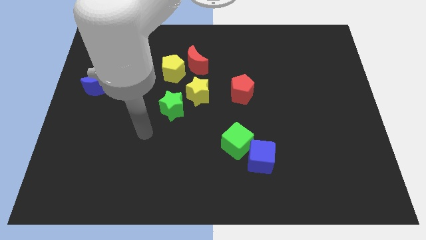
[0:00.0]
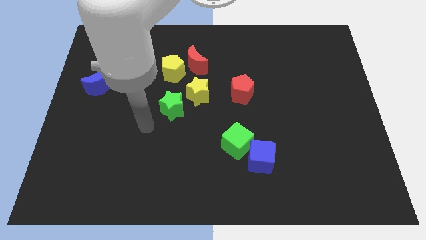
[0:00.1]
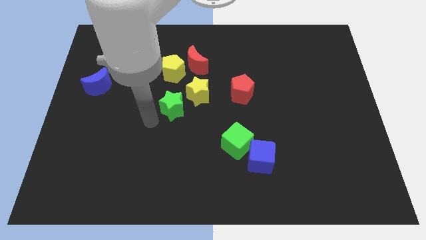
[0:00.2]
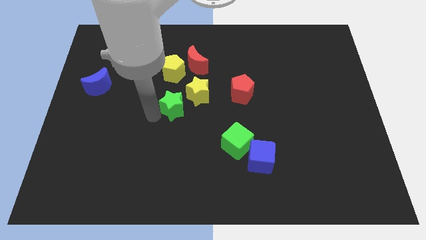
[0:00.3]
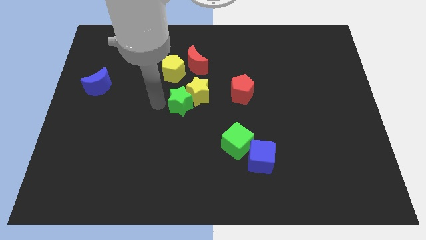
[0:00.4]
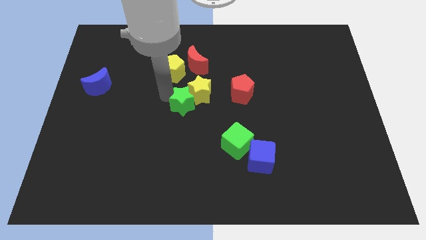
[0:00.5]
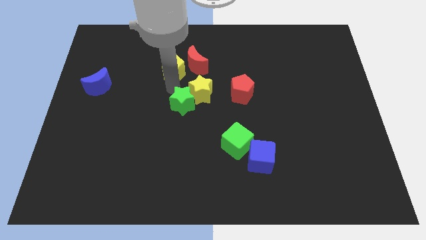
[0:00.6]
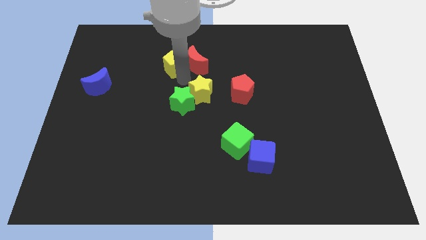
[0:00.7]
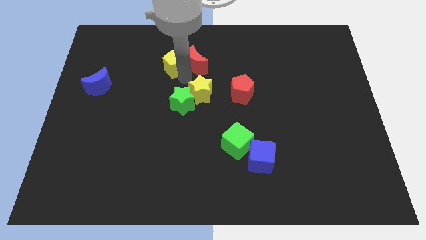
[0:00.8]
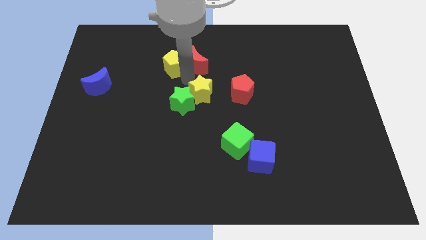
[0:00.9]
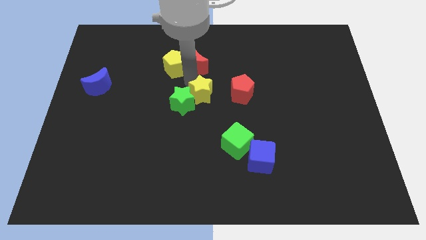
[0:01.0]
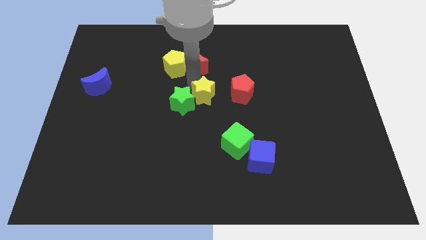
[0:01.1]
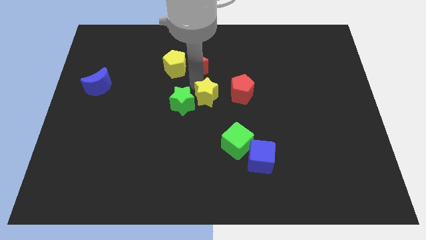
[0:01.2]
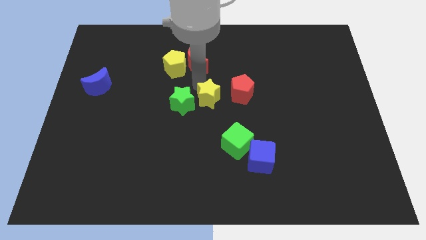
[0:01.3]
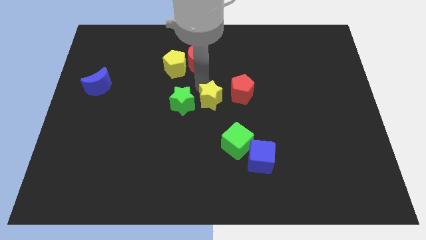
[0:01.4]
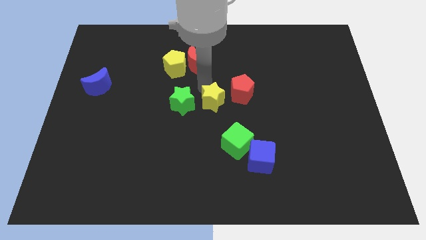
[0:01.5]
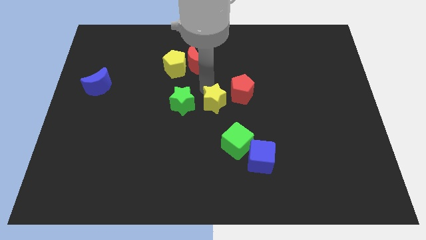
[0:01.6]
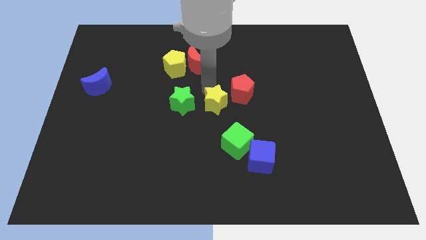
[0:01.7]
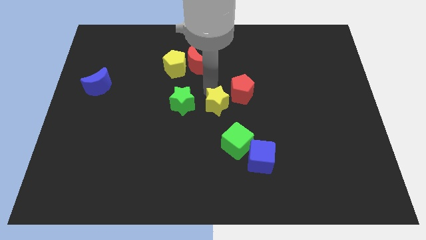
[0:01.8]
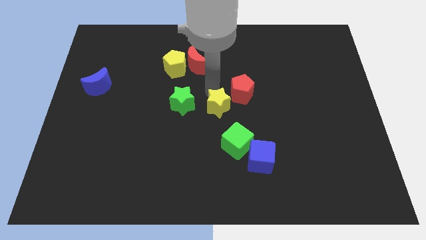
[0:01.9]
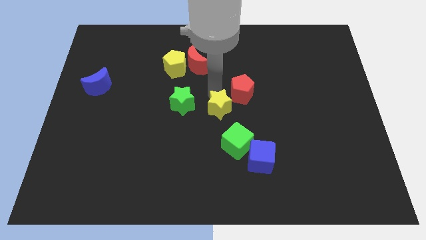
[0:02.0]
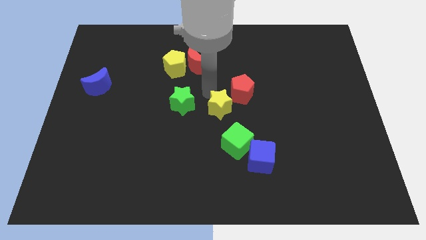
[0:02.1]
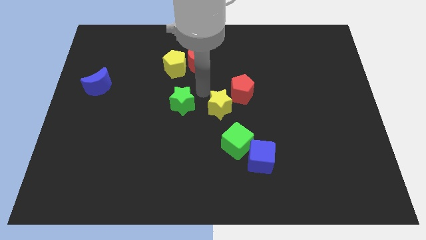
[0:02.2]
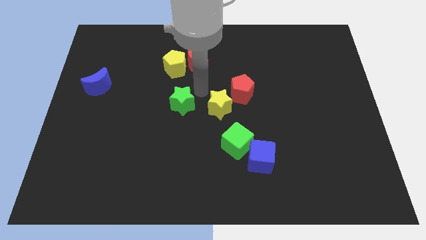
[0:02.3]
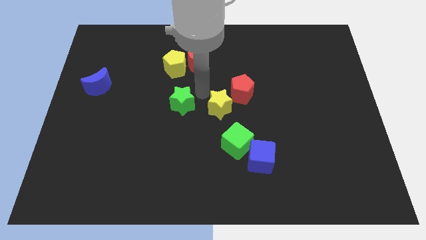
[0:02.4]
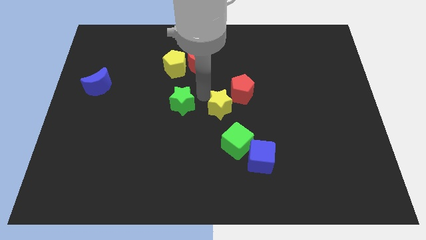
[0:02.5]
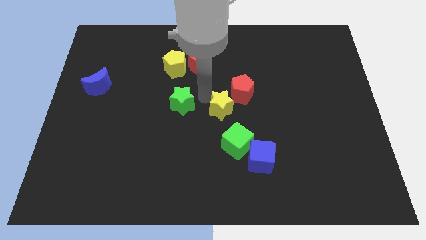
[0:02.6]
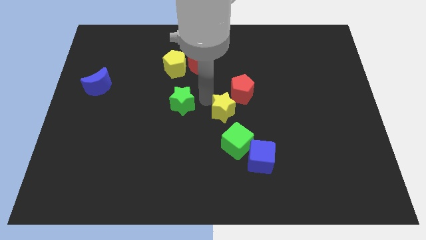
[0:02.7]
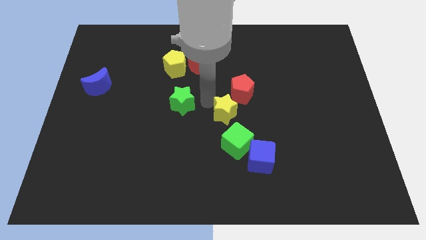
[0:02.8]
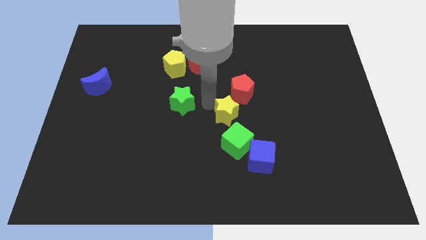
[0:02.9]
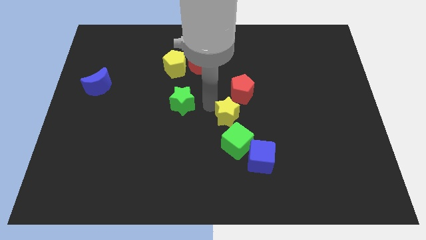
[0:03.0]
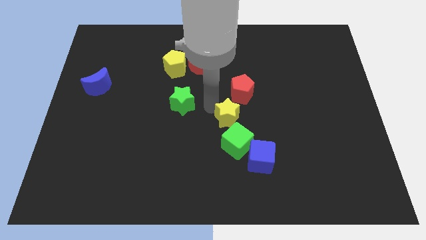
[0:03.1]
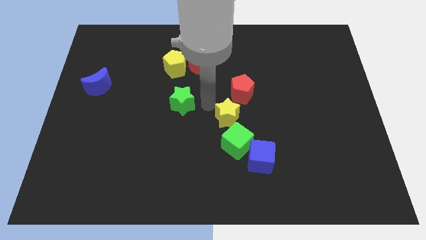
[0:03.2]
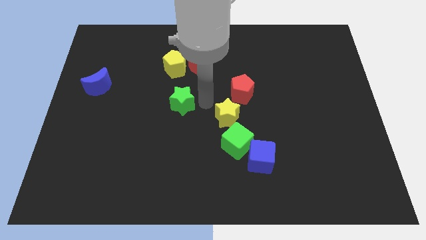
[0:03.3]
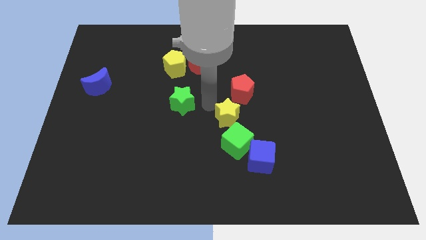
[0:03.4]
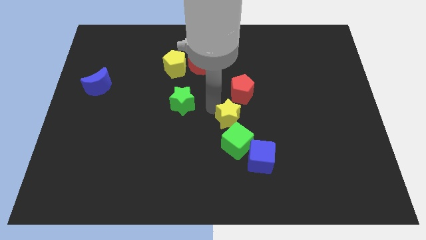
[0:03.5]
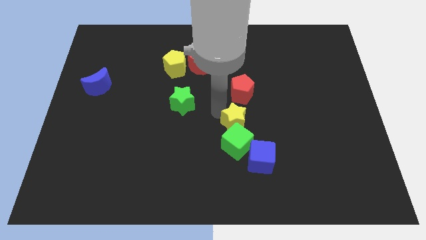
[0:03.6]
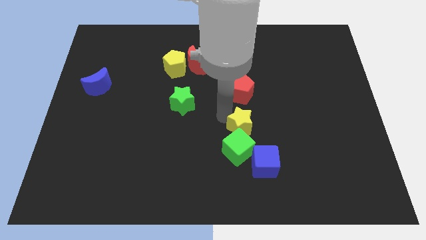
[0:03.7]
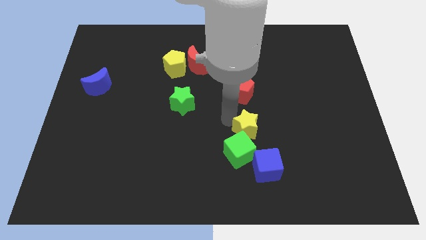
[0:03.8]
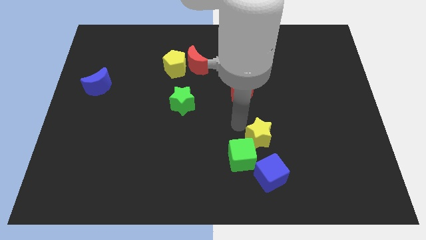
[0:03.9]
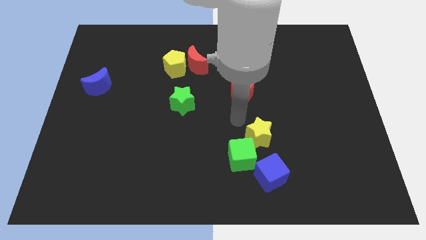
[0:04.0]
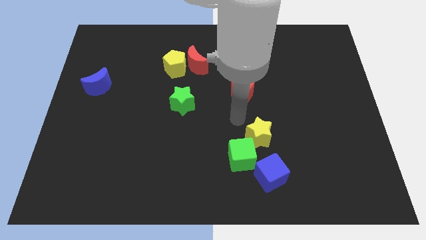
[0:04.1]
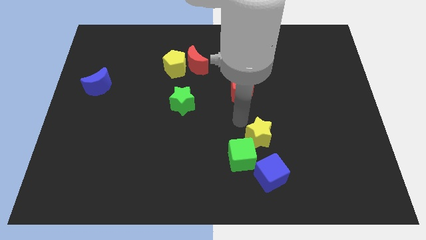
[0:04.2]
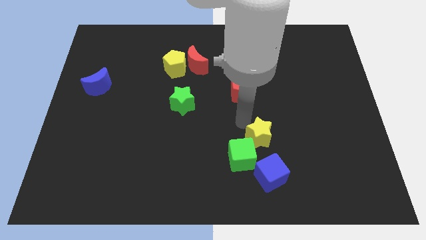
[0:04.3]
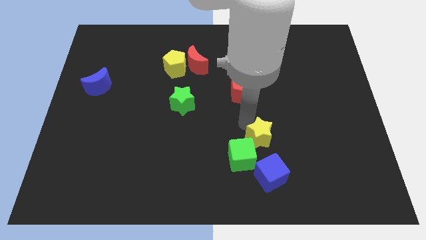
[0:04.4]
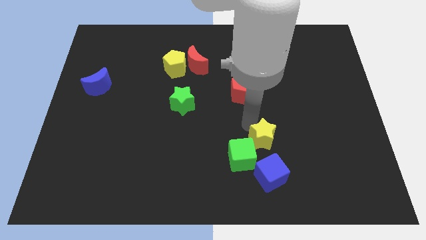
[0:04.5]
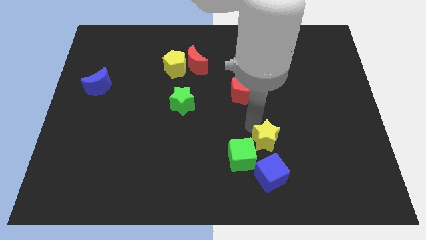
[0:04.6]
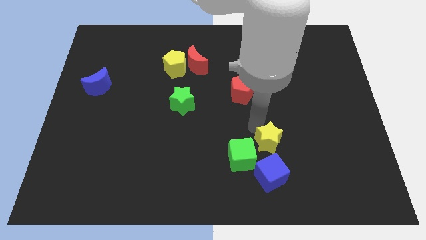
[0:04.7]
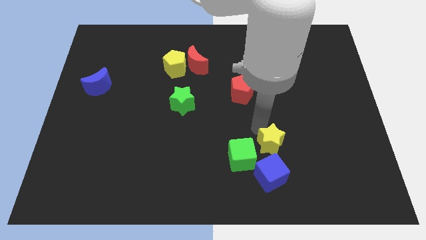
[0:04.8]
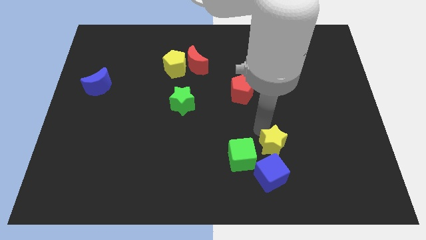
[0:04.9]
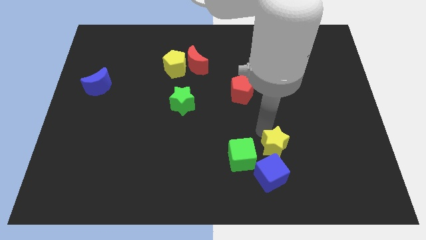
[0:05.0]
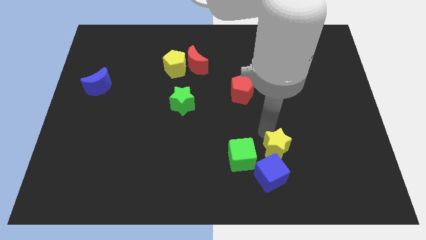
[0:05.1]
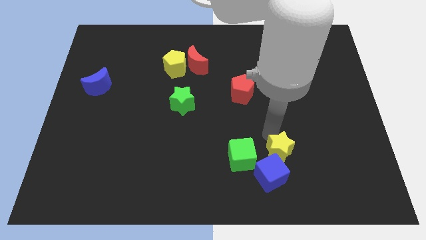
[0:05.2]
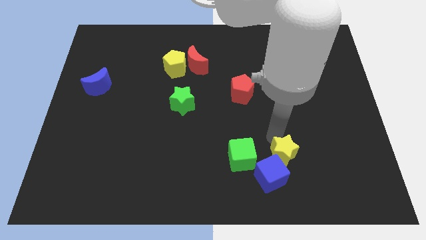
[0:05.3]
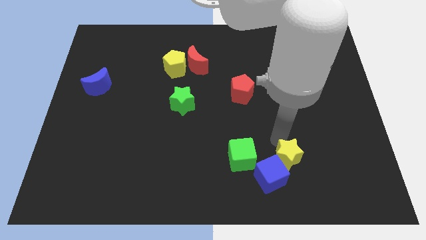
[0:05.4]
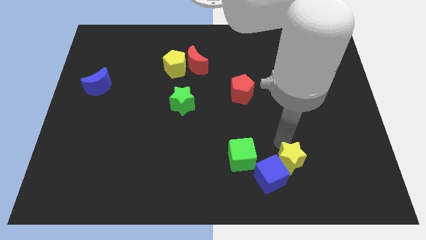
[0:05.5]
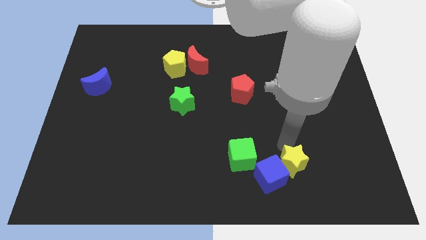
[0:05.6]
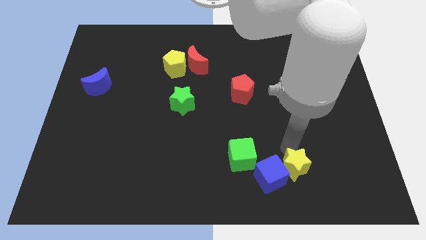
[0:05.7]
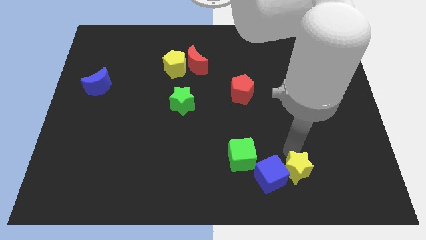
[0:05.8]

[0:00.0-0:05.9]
slide the yellow star to the bottom right of the blue cube

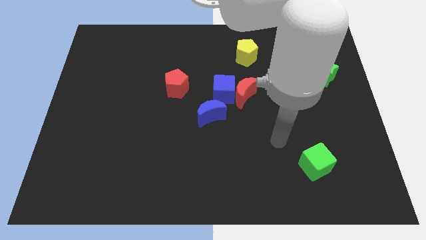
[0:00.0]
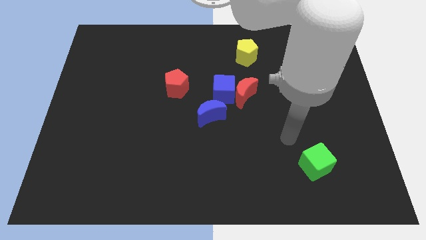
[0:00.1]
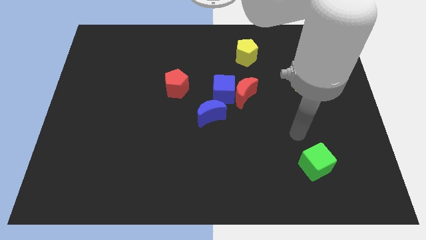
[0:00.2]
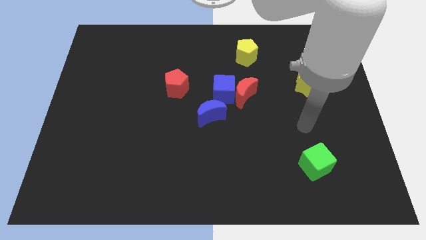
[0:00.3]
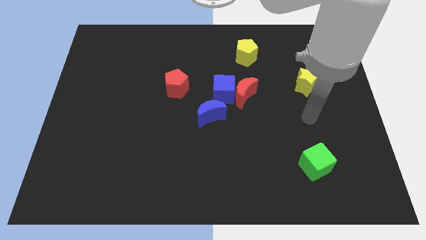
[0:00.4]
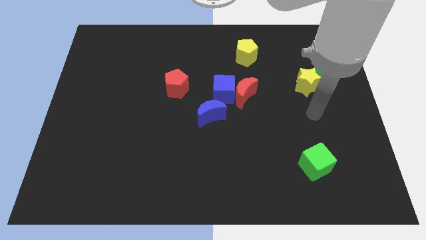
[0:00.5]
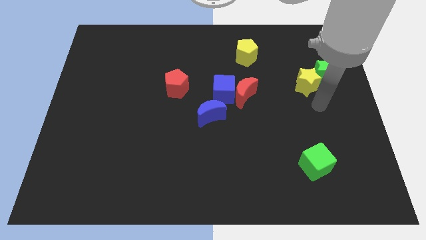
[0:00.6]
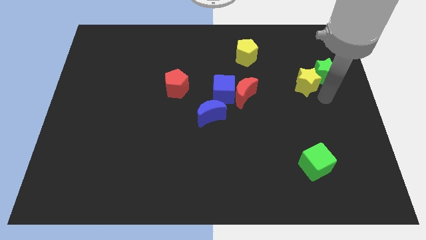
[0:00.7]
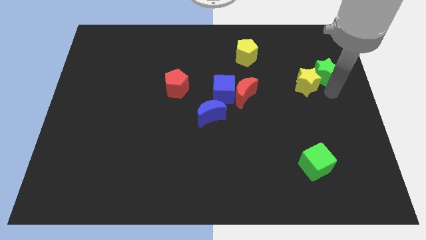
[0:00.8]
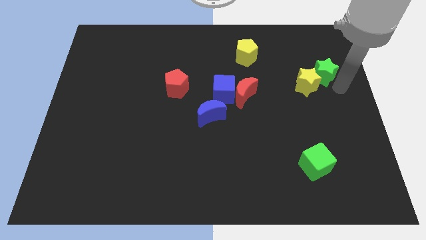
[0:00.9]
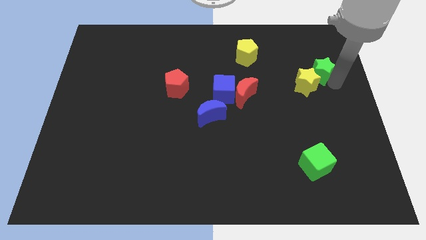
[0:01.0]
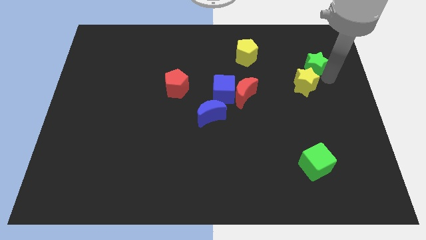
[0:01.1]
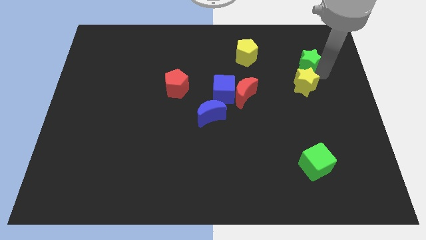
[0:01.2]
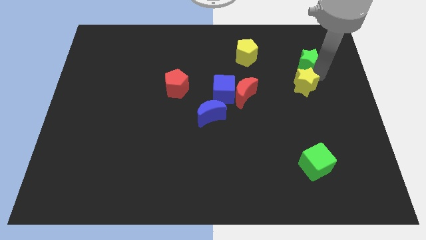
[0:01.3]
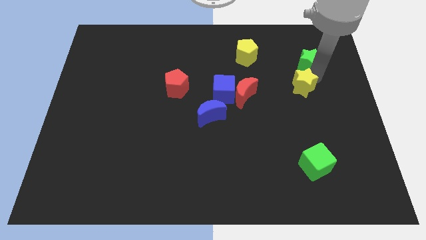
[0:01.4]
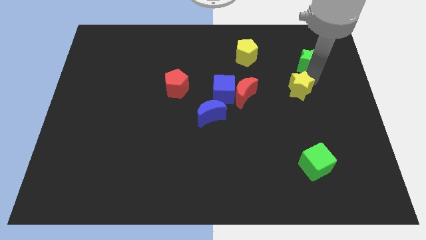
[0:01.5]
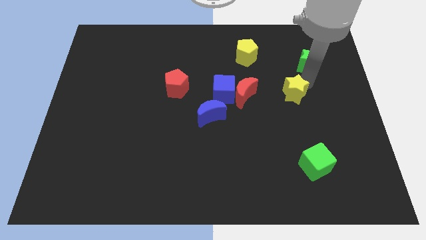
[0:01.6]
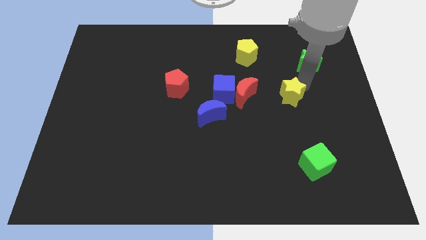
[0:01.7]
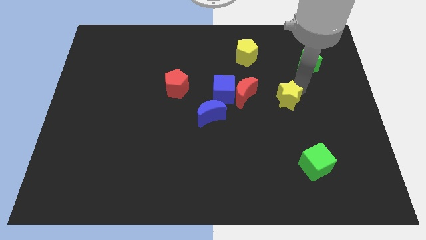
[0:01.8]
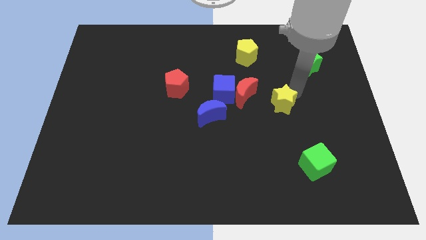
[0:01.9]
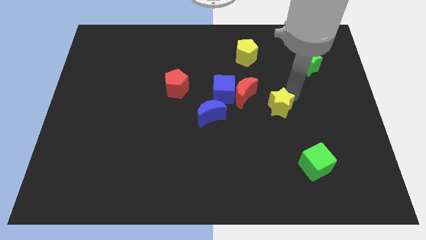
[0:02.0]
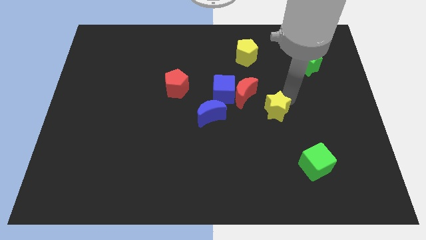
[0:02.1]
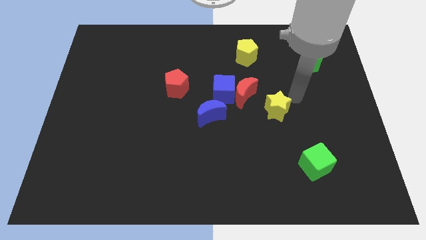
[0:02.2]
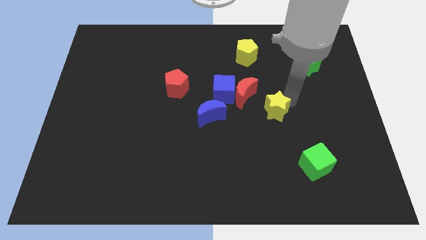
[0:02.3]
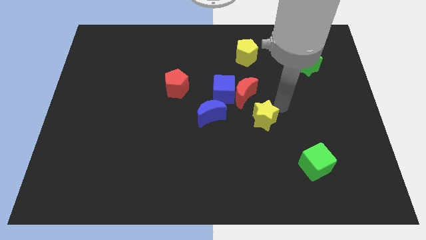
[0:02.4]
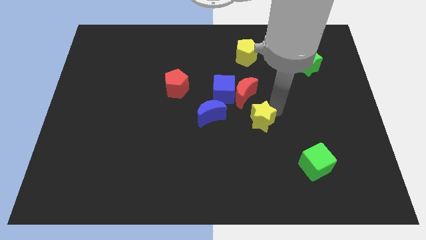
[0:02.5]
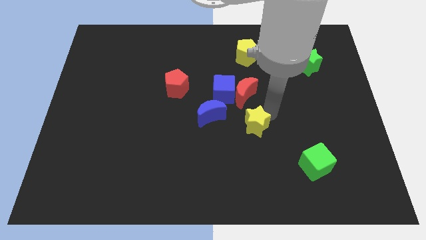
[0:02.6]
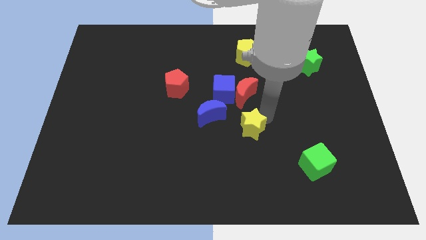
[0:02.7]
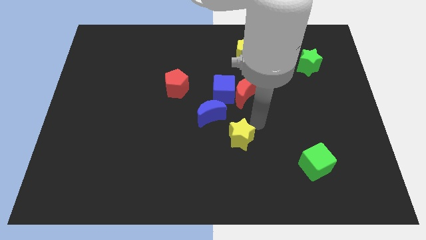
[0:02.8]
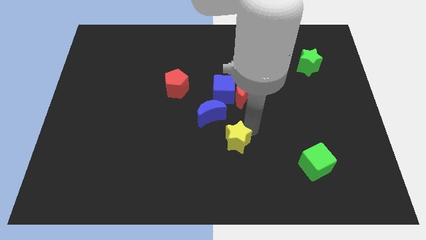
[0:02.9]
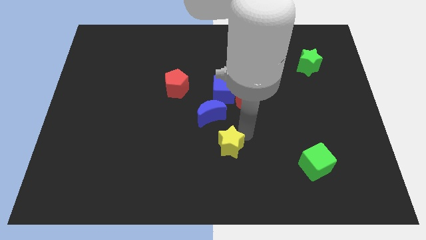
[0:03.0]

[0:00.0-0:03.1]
move the yellow star below the blue moon
